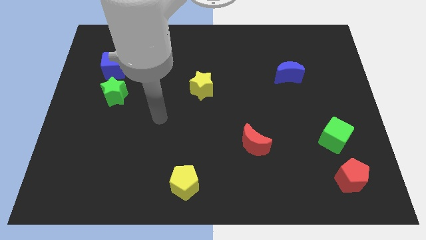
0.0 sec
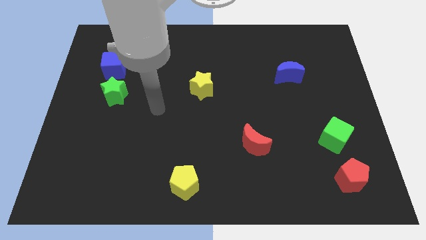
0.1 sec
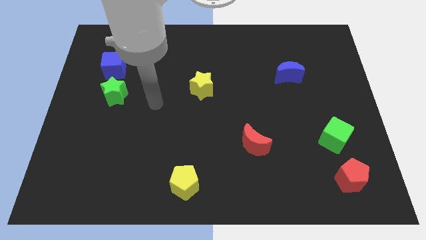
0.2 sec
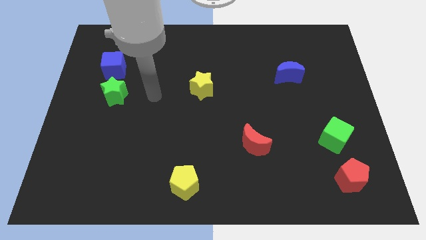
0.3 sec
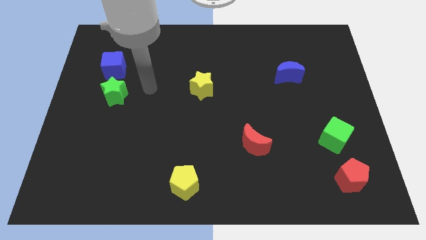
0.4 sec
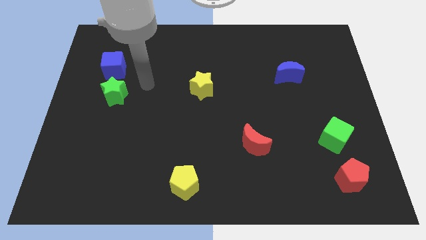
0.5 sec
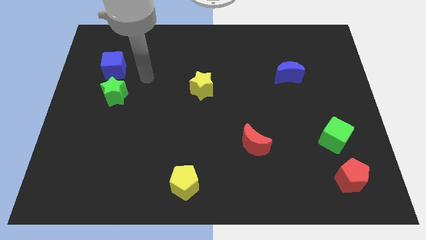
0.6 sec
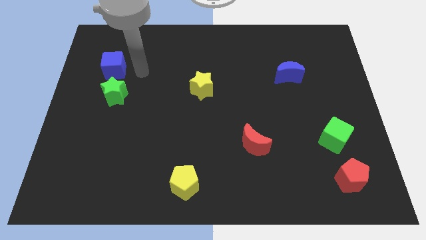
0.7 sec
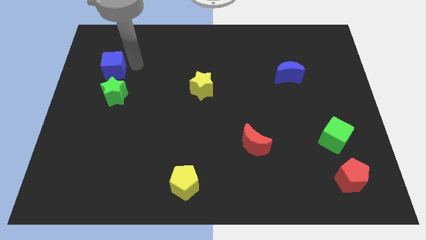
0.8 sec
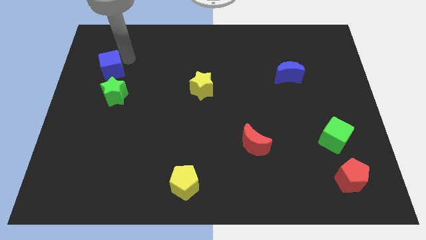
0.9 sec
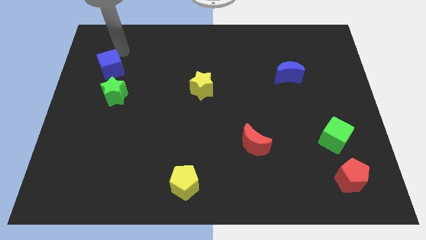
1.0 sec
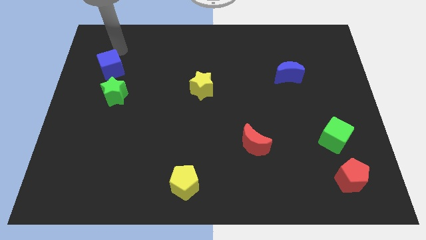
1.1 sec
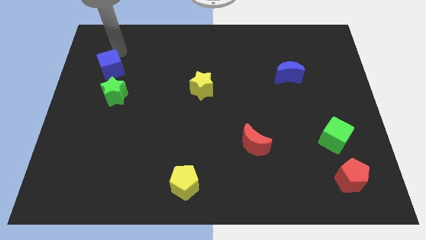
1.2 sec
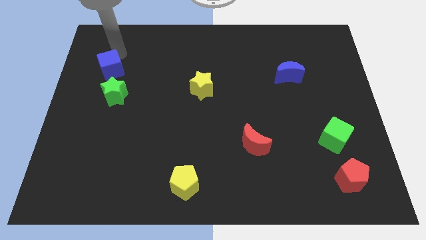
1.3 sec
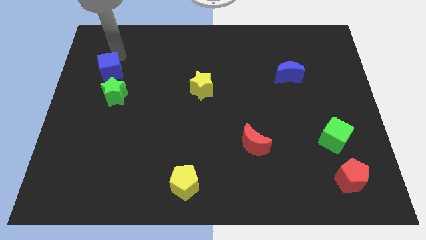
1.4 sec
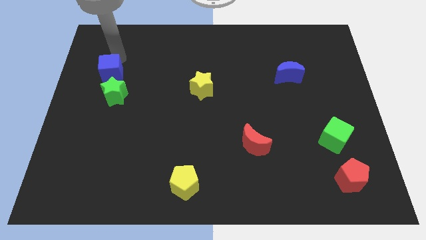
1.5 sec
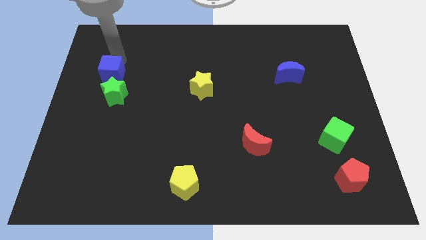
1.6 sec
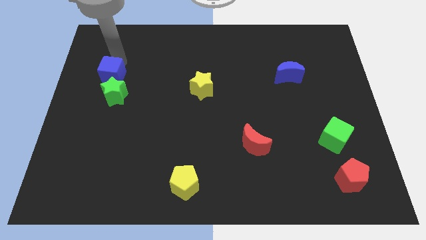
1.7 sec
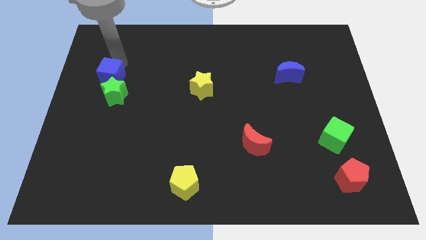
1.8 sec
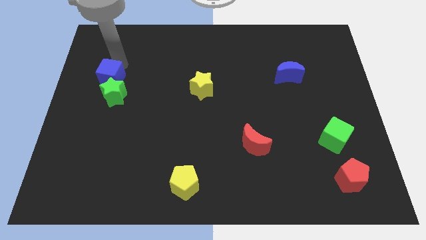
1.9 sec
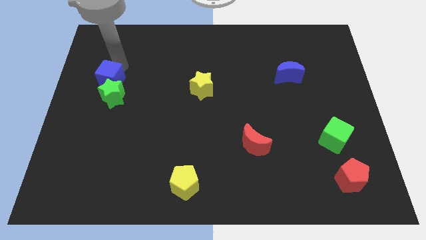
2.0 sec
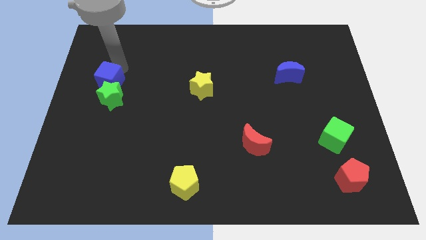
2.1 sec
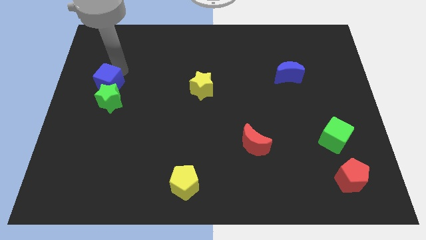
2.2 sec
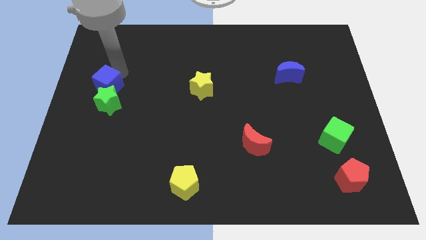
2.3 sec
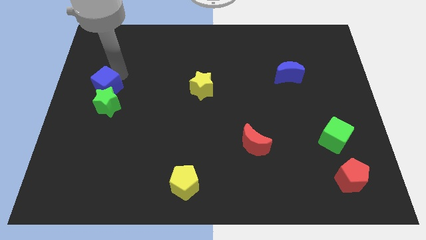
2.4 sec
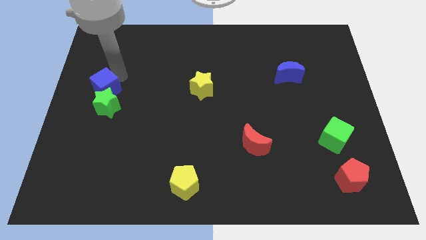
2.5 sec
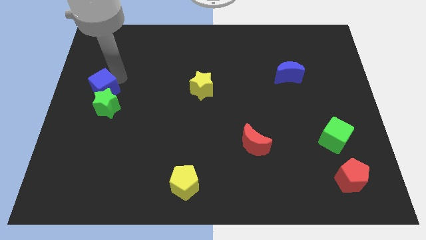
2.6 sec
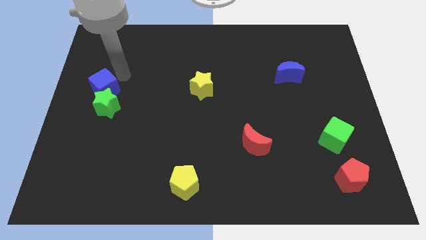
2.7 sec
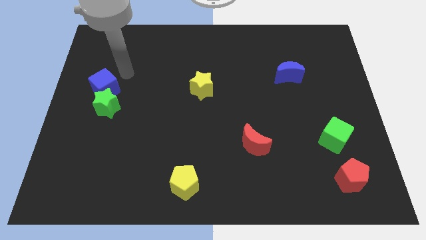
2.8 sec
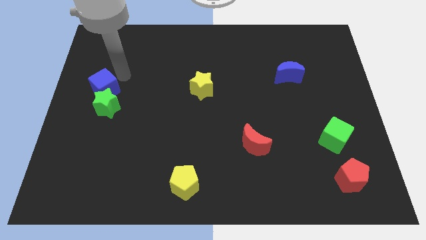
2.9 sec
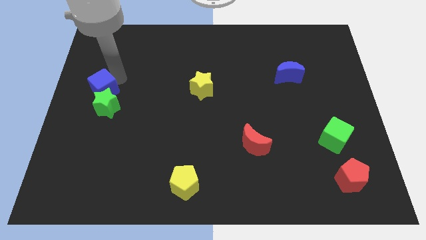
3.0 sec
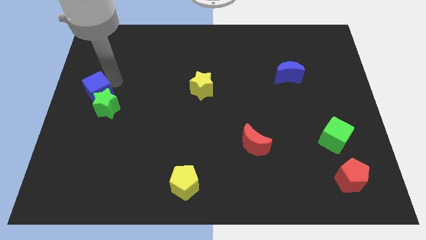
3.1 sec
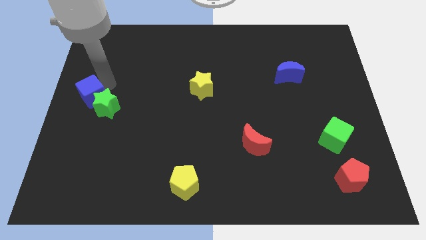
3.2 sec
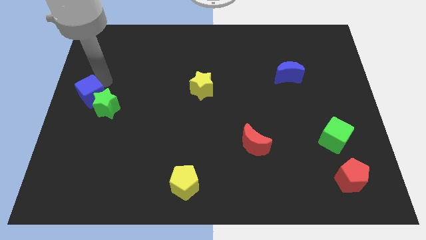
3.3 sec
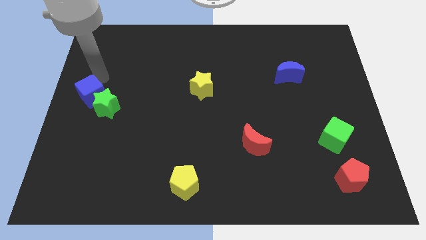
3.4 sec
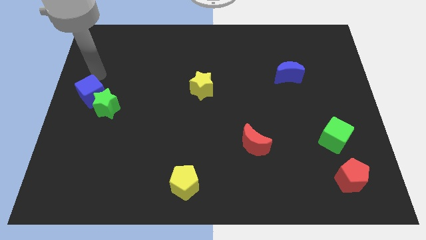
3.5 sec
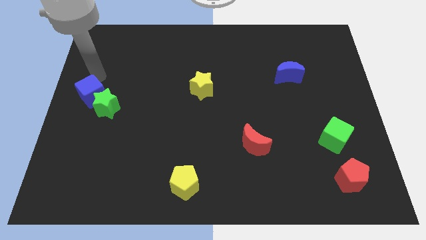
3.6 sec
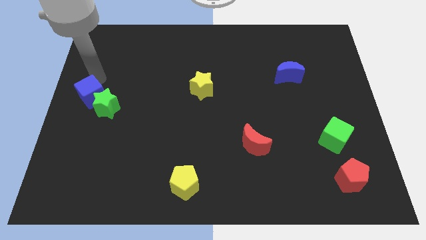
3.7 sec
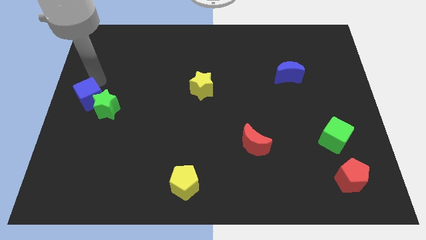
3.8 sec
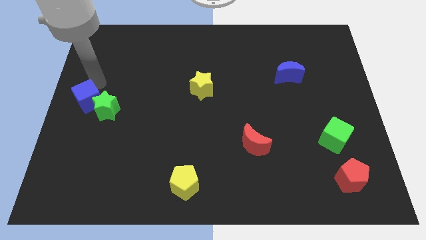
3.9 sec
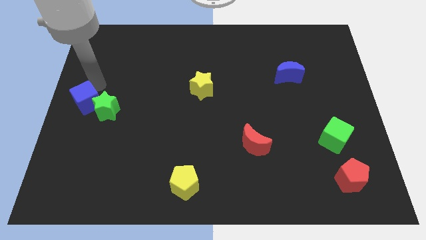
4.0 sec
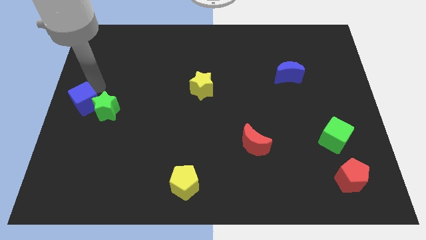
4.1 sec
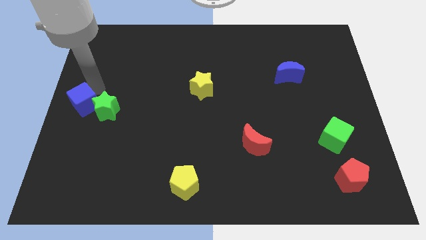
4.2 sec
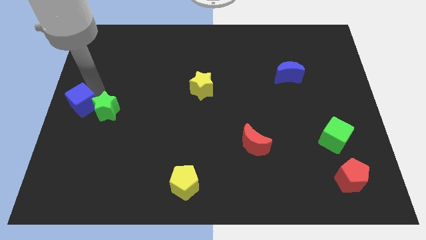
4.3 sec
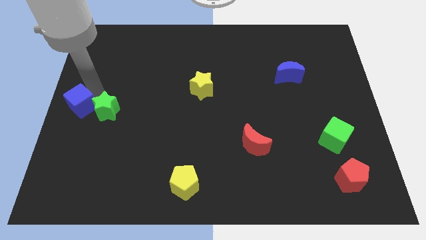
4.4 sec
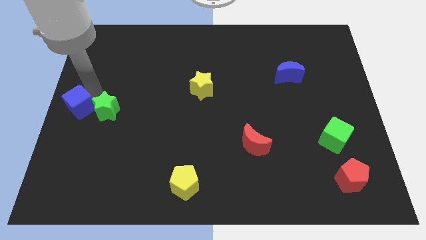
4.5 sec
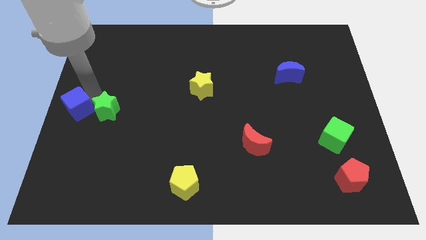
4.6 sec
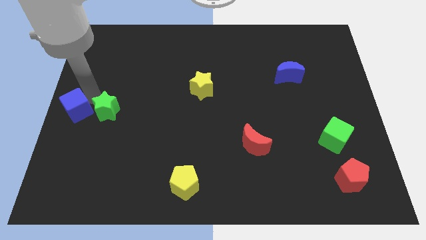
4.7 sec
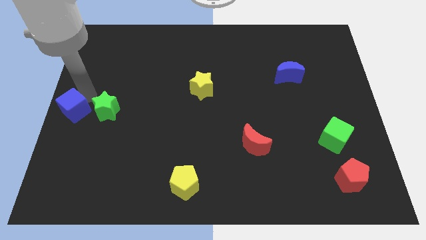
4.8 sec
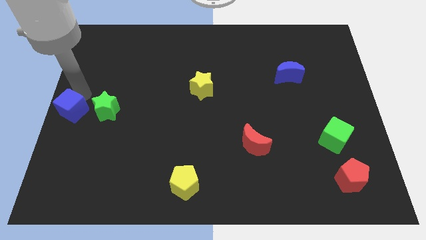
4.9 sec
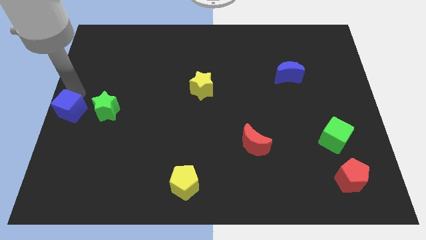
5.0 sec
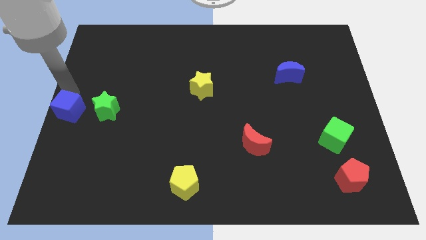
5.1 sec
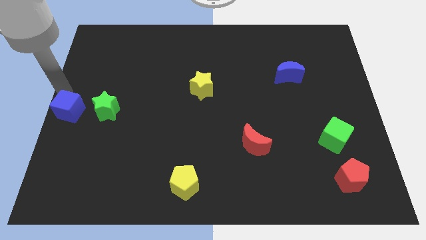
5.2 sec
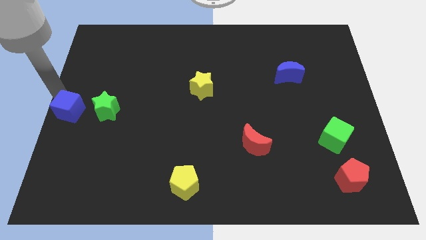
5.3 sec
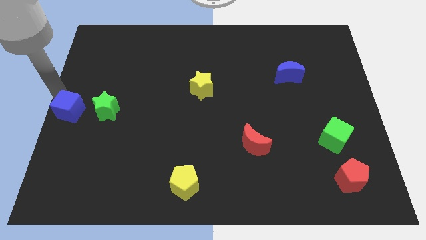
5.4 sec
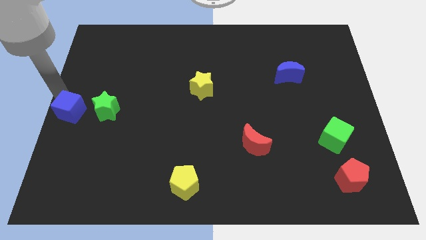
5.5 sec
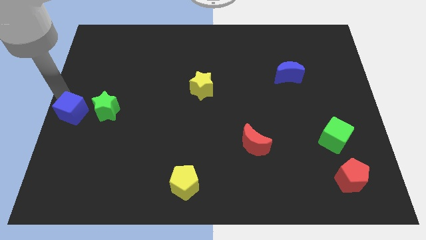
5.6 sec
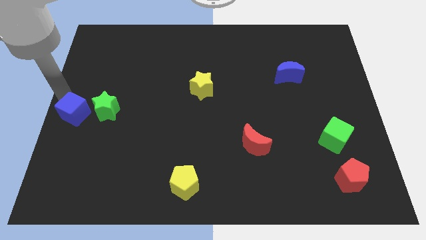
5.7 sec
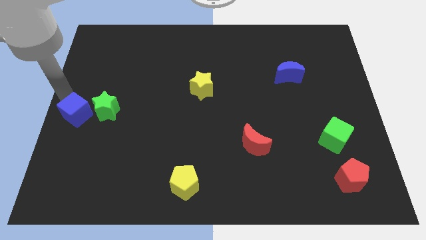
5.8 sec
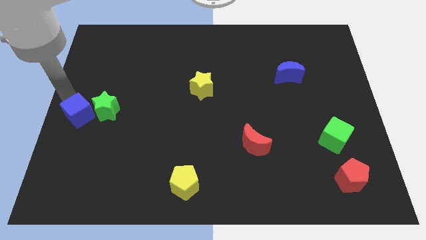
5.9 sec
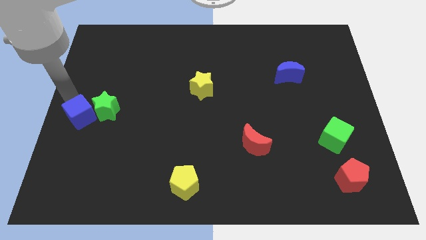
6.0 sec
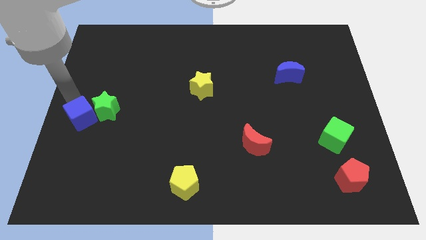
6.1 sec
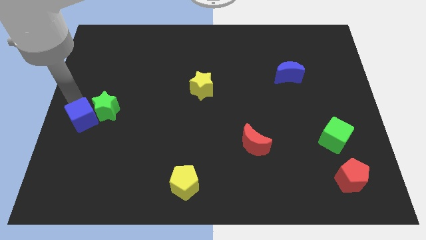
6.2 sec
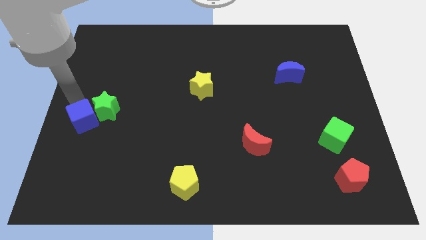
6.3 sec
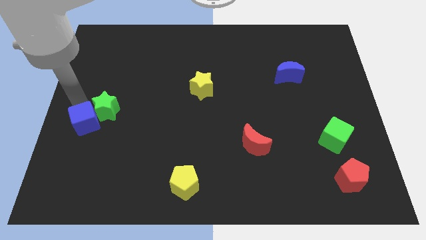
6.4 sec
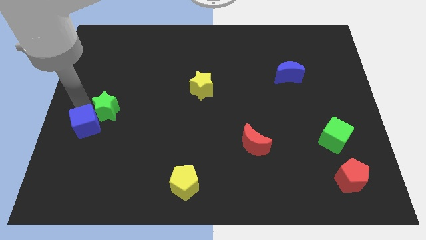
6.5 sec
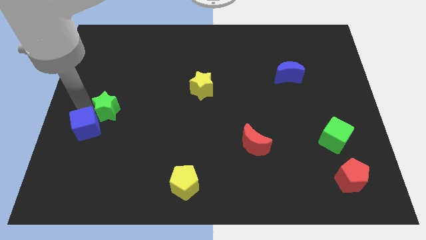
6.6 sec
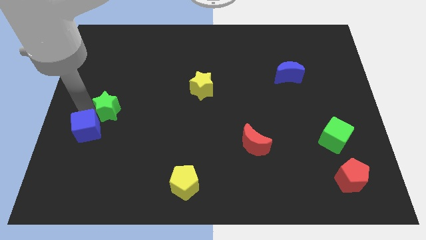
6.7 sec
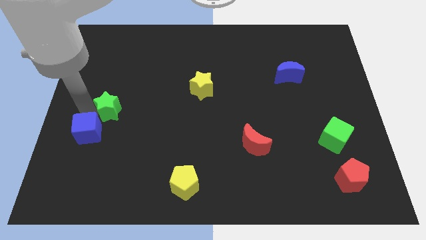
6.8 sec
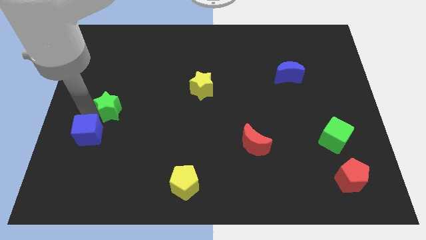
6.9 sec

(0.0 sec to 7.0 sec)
move the blue cube downwards

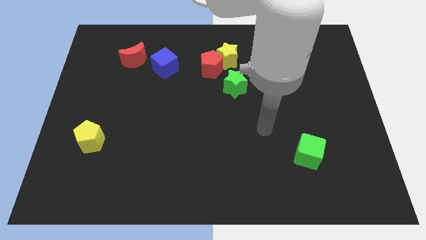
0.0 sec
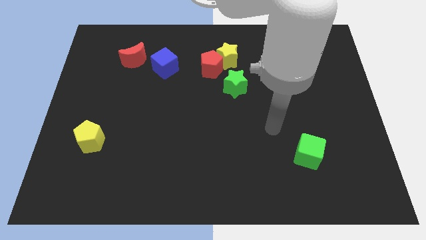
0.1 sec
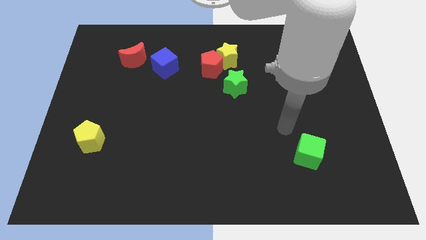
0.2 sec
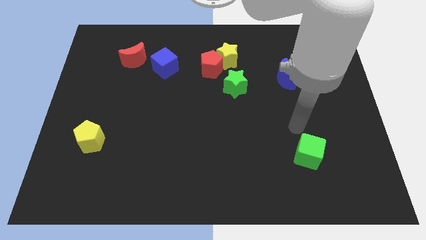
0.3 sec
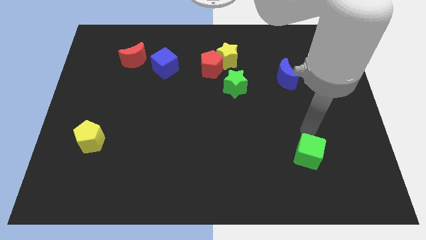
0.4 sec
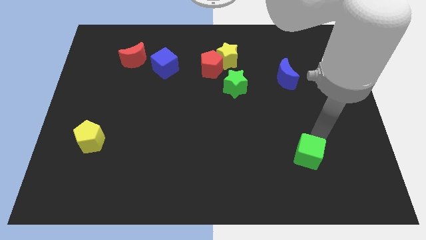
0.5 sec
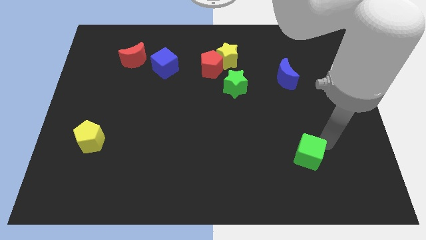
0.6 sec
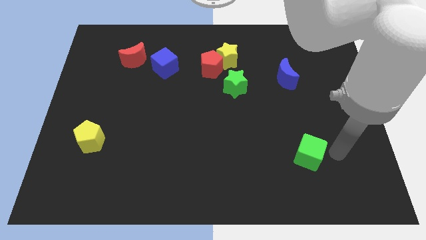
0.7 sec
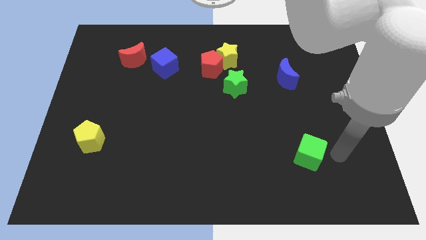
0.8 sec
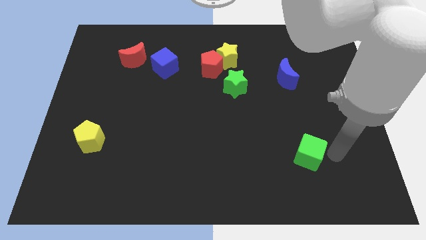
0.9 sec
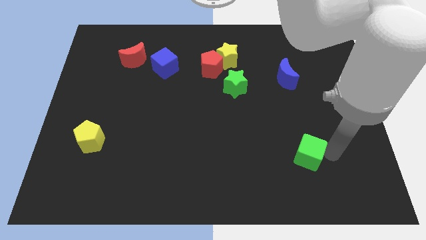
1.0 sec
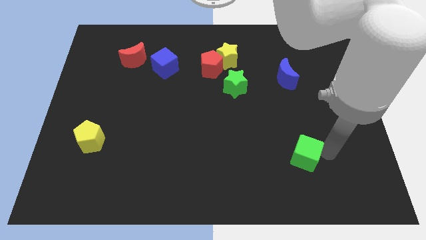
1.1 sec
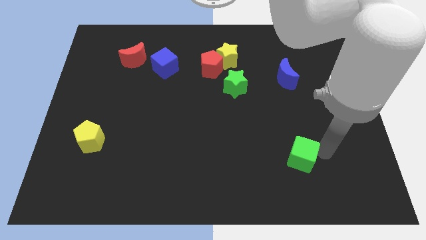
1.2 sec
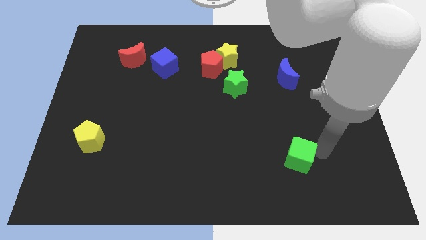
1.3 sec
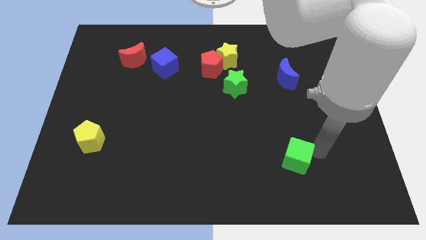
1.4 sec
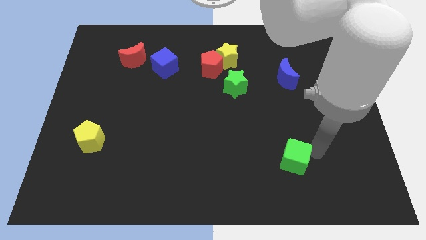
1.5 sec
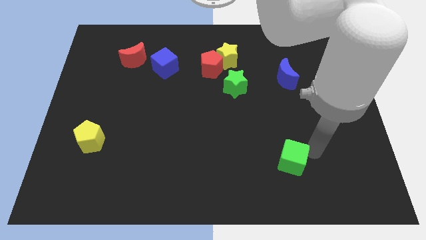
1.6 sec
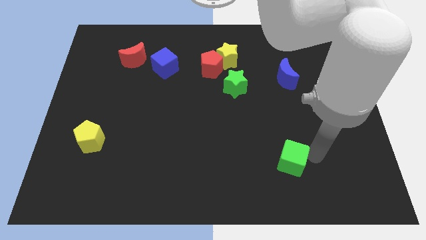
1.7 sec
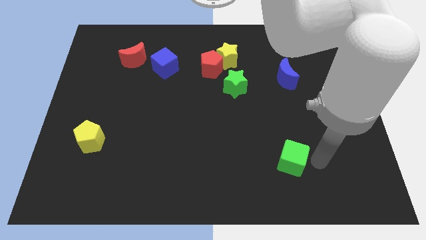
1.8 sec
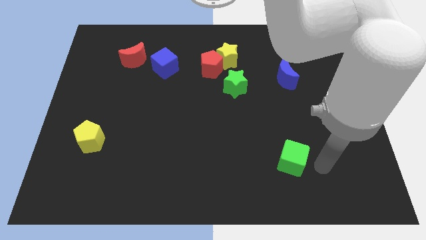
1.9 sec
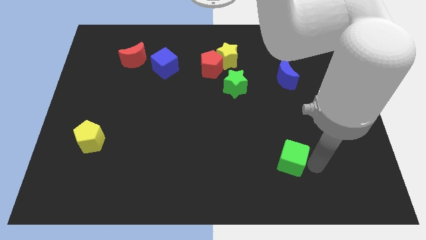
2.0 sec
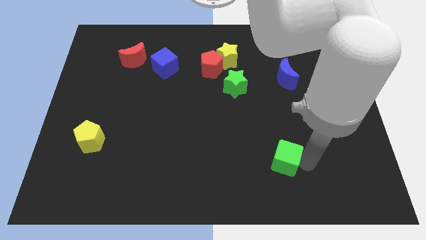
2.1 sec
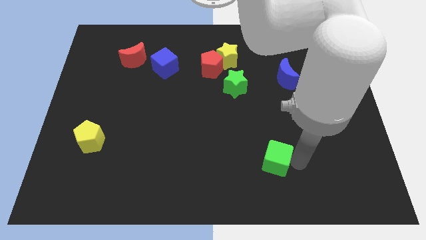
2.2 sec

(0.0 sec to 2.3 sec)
slightly push the green cube left
